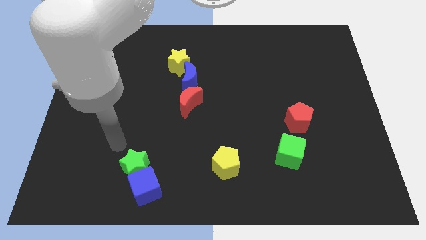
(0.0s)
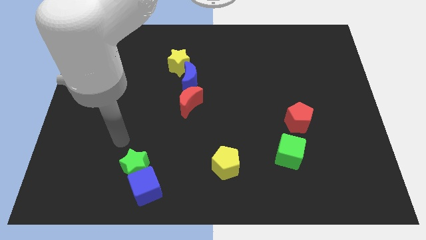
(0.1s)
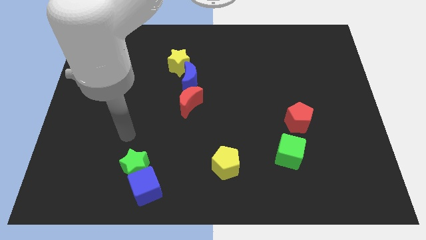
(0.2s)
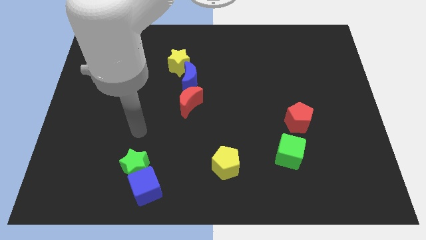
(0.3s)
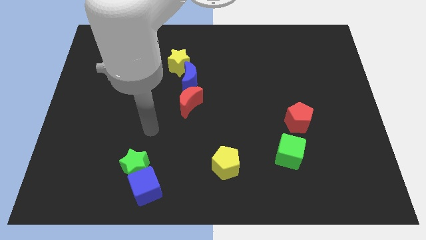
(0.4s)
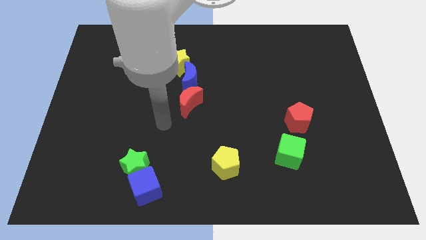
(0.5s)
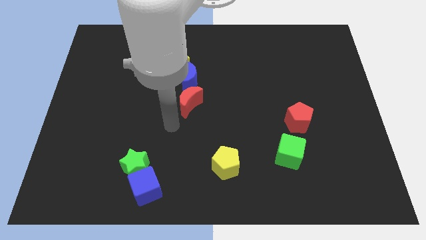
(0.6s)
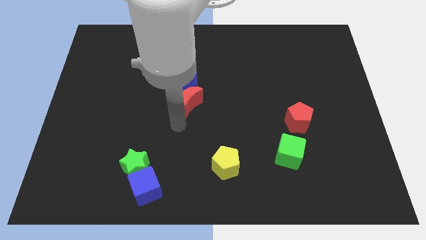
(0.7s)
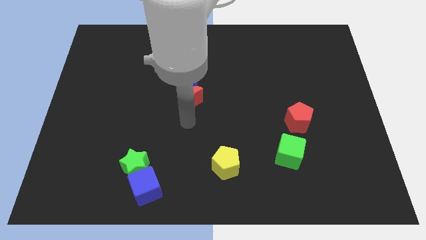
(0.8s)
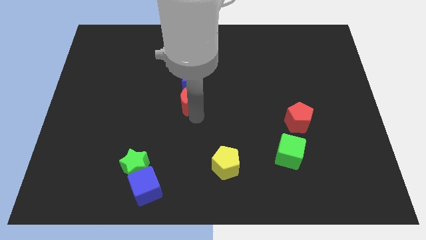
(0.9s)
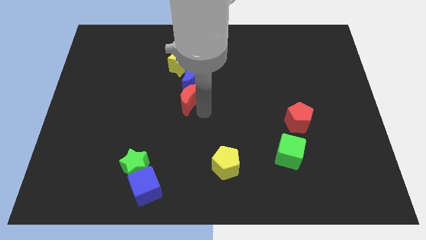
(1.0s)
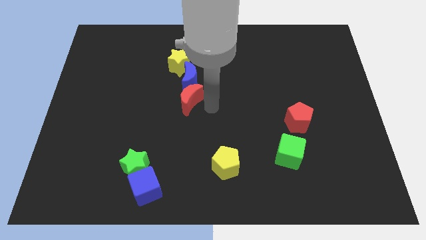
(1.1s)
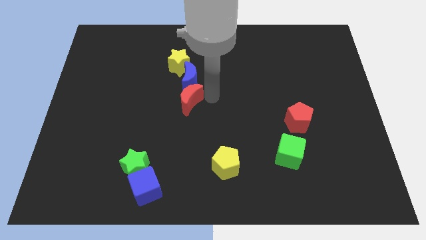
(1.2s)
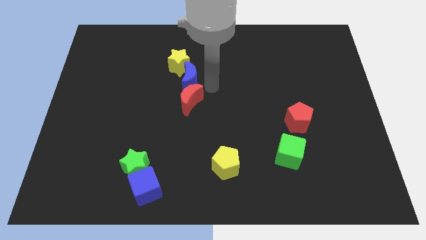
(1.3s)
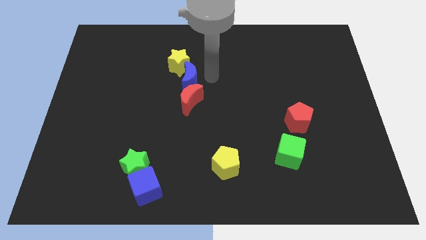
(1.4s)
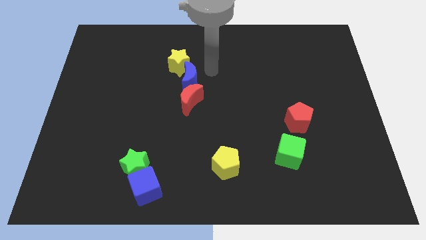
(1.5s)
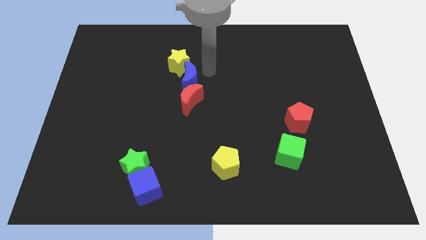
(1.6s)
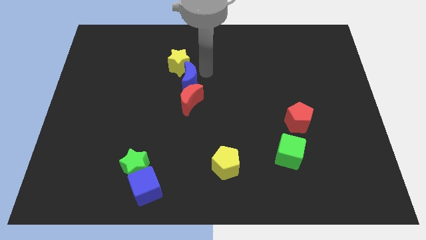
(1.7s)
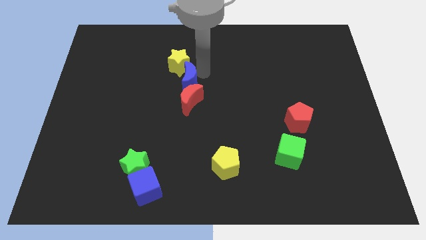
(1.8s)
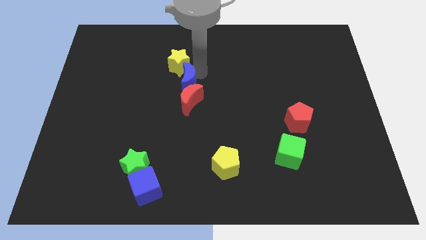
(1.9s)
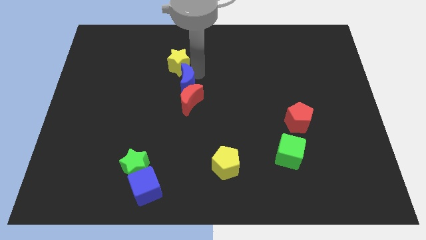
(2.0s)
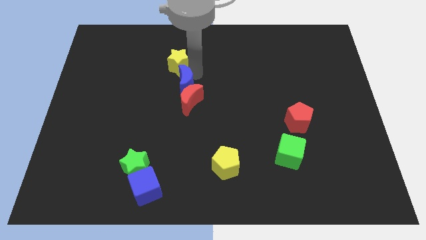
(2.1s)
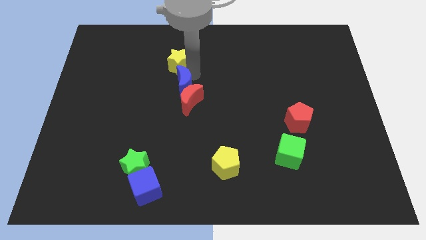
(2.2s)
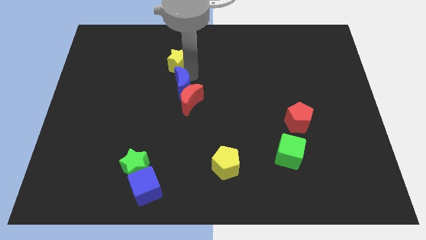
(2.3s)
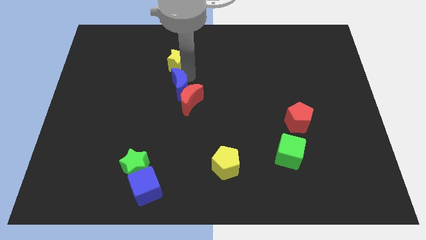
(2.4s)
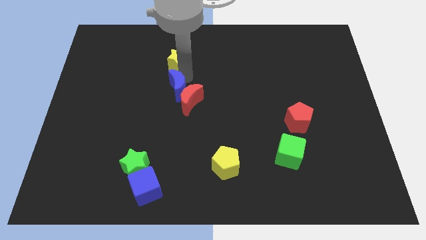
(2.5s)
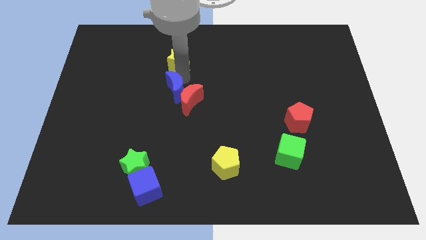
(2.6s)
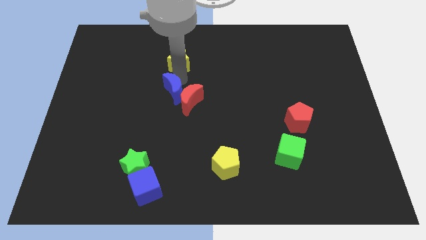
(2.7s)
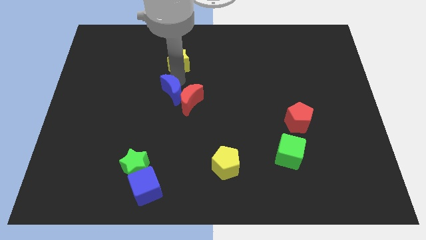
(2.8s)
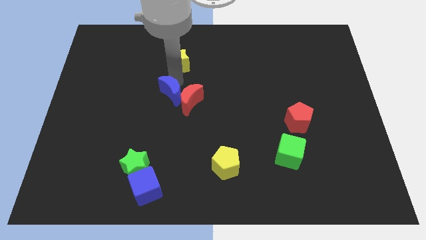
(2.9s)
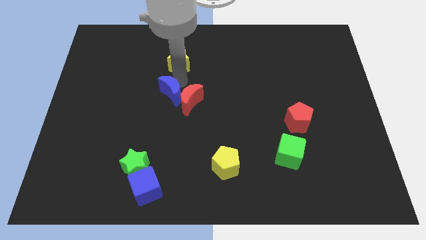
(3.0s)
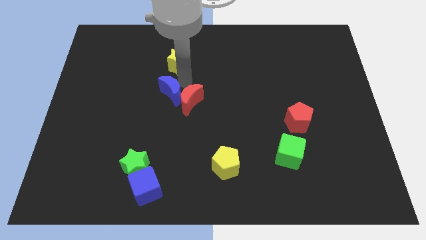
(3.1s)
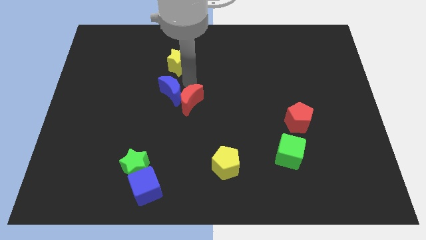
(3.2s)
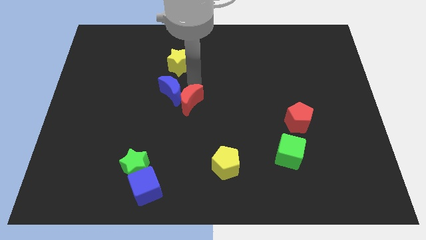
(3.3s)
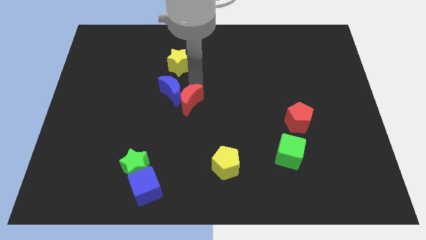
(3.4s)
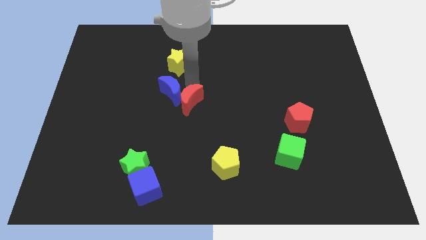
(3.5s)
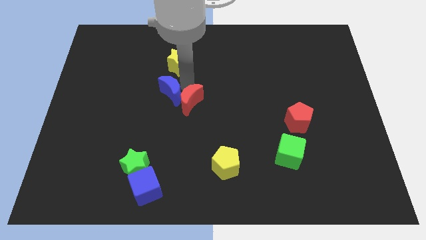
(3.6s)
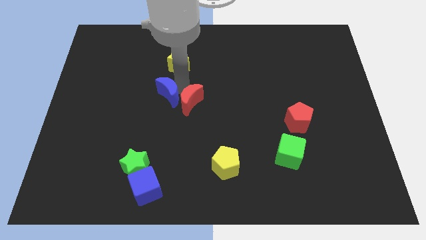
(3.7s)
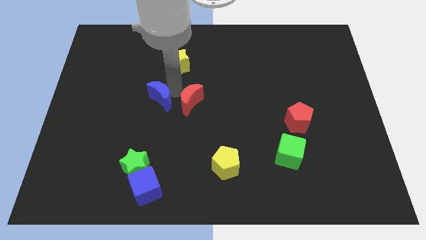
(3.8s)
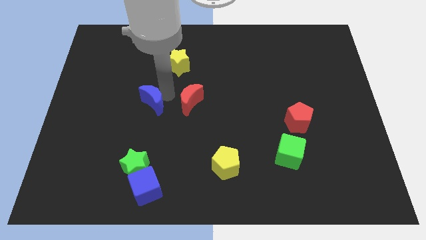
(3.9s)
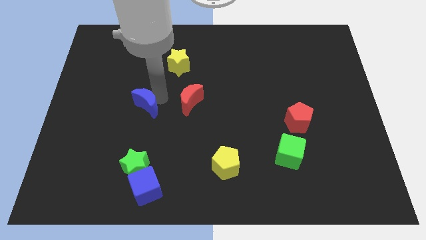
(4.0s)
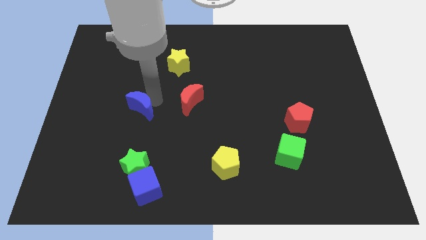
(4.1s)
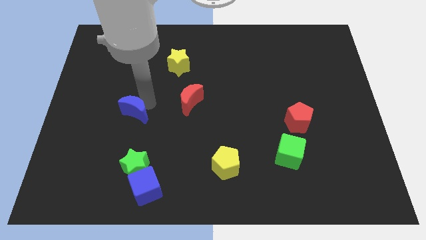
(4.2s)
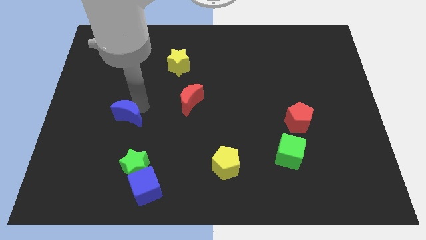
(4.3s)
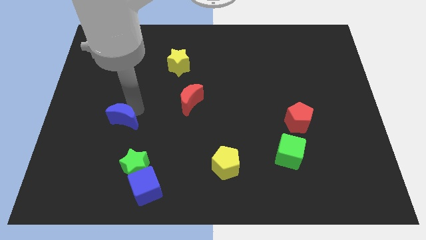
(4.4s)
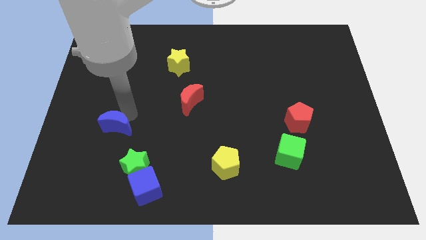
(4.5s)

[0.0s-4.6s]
move the blue moon down and to the left

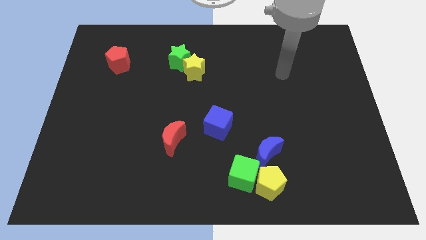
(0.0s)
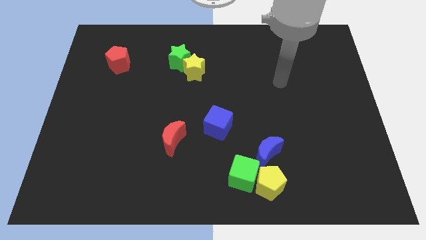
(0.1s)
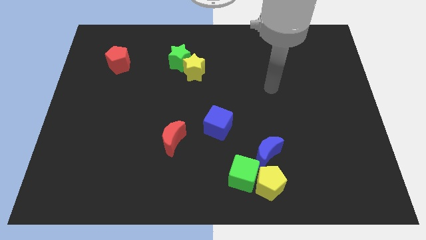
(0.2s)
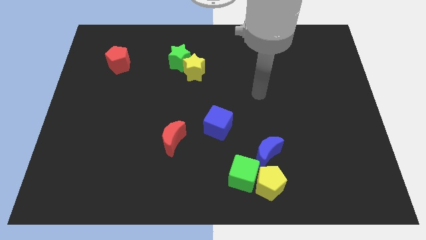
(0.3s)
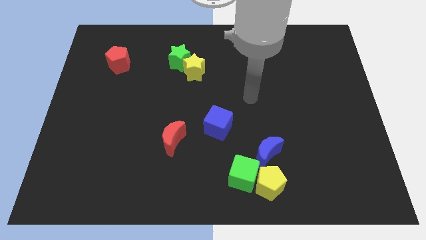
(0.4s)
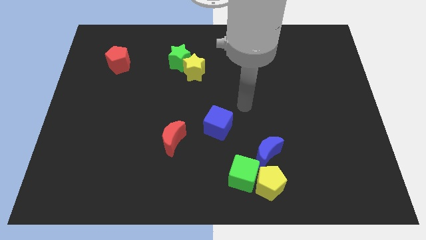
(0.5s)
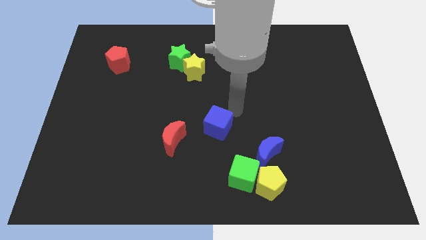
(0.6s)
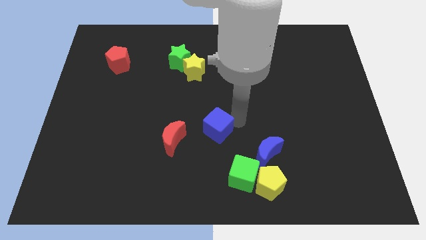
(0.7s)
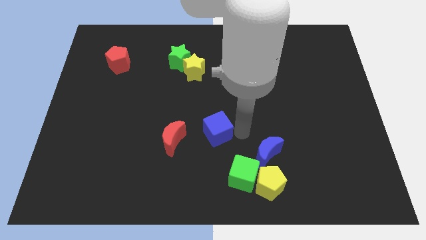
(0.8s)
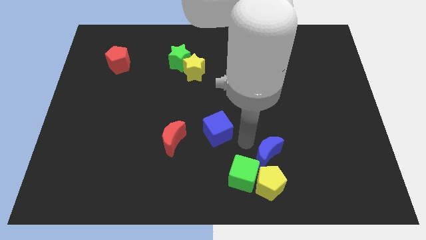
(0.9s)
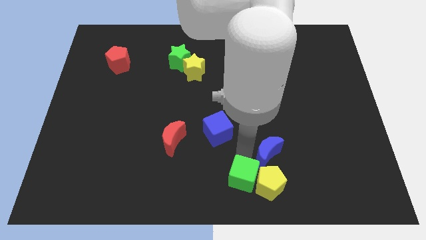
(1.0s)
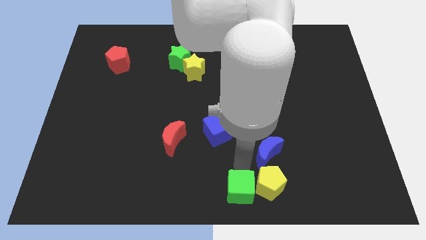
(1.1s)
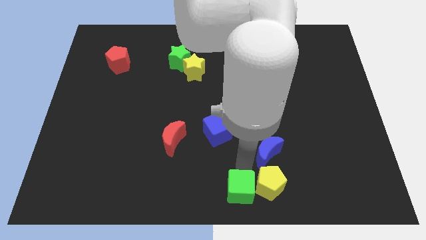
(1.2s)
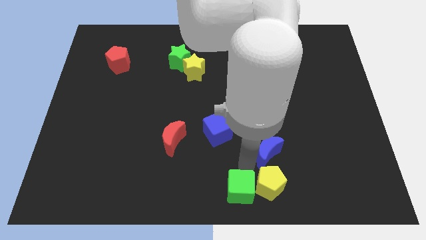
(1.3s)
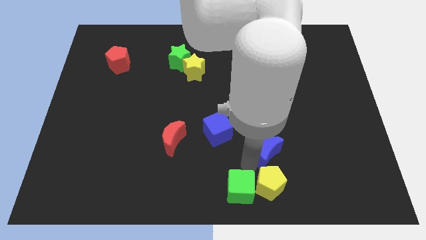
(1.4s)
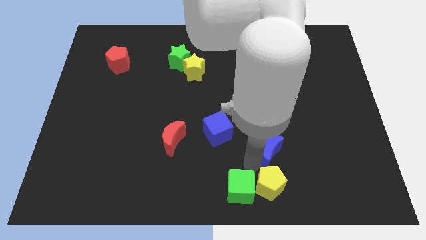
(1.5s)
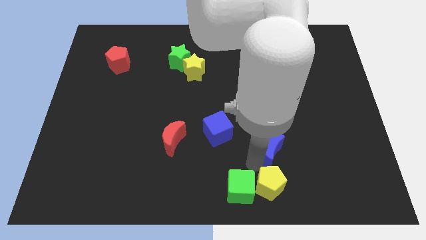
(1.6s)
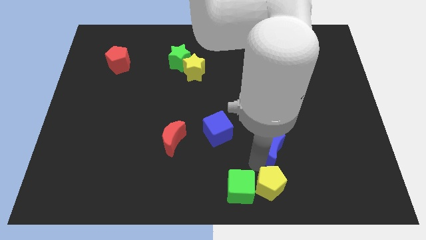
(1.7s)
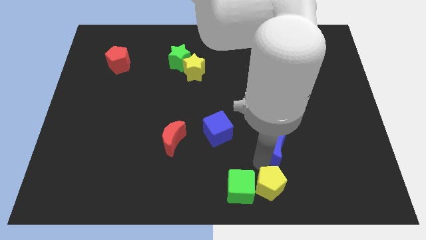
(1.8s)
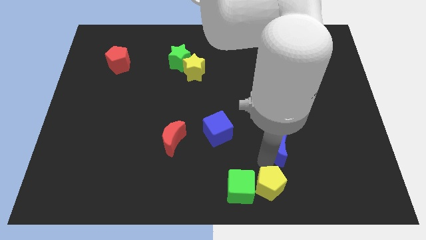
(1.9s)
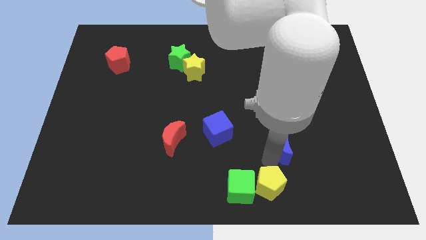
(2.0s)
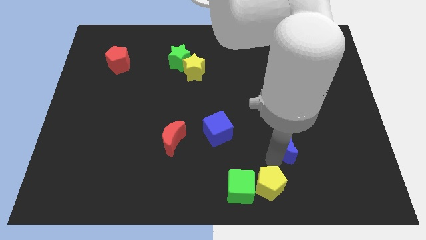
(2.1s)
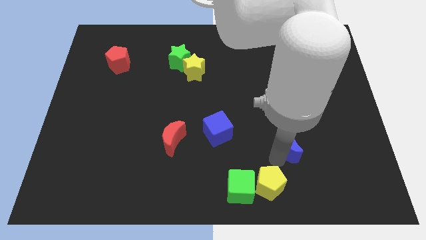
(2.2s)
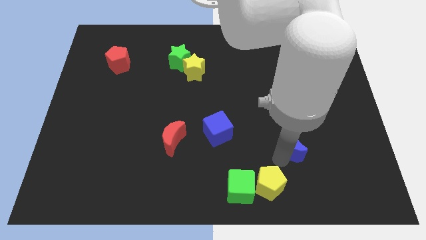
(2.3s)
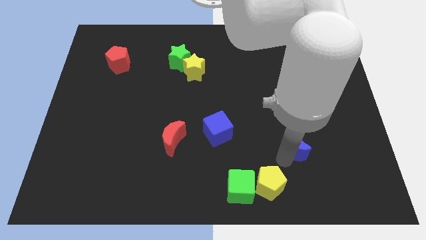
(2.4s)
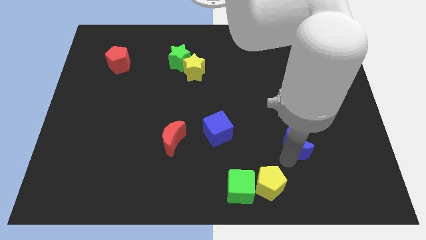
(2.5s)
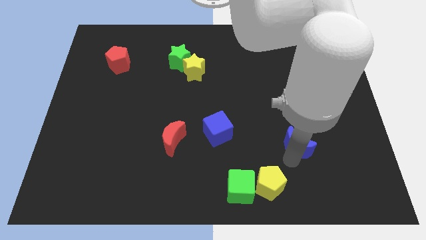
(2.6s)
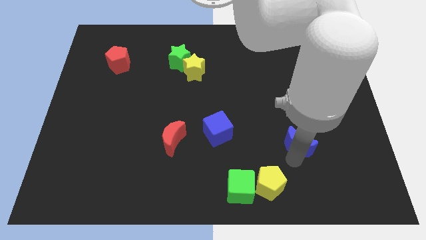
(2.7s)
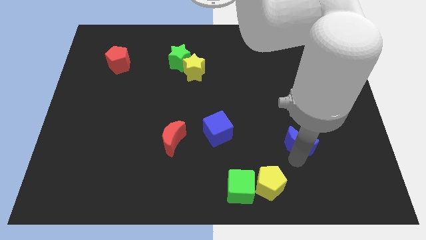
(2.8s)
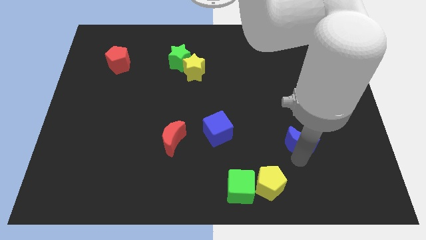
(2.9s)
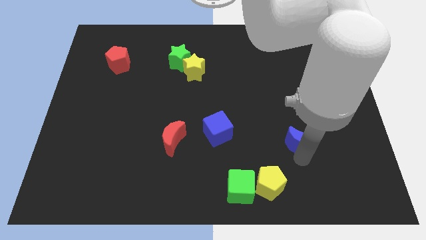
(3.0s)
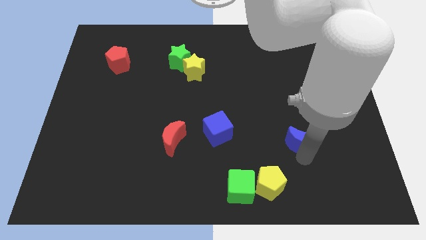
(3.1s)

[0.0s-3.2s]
slightly slide the blue moon upwards and right diagonally

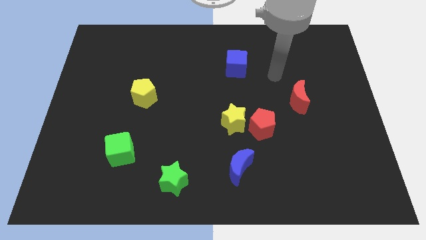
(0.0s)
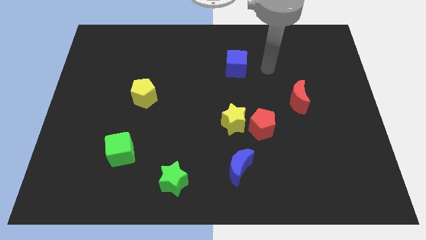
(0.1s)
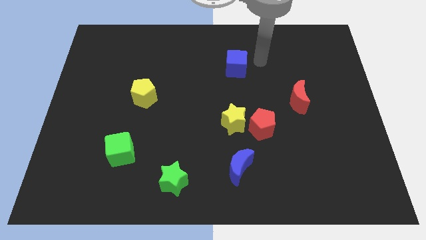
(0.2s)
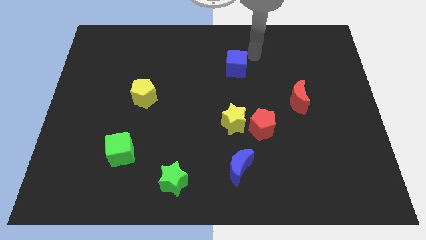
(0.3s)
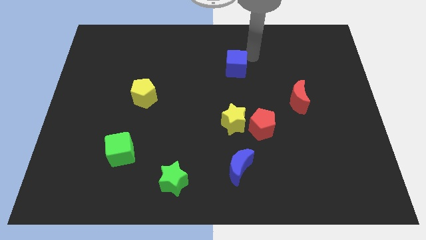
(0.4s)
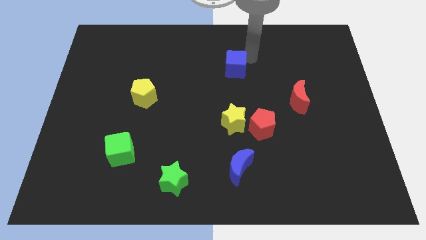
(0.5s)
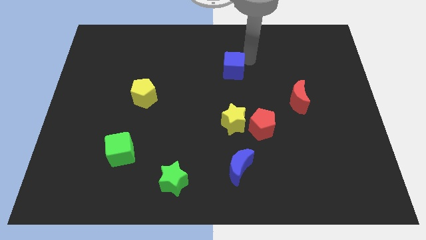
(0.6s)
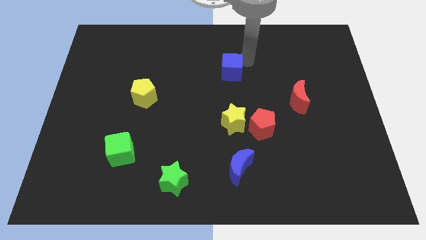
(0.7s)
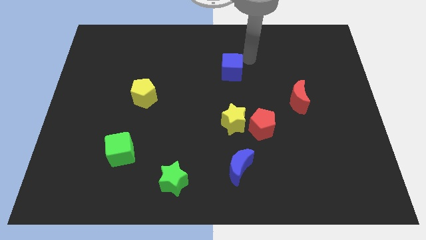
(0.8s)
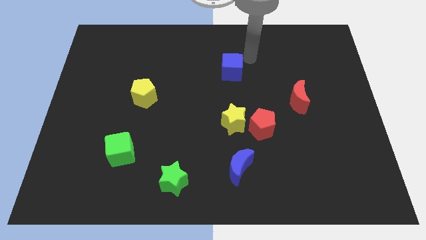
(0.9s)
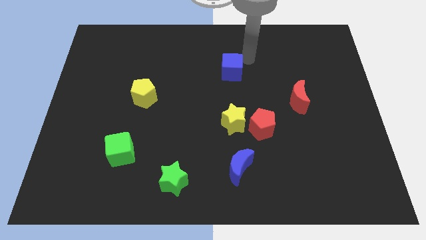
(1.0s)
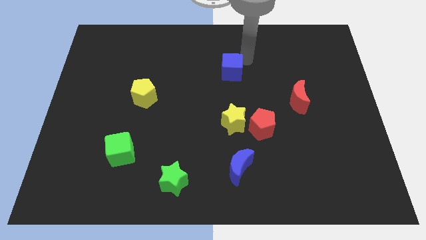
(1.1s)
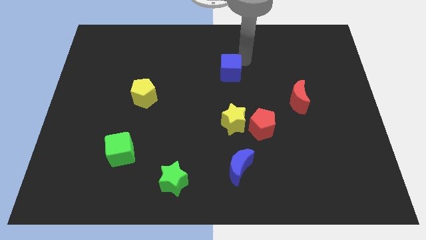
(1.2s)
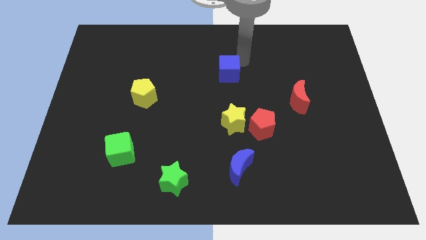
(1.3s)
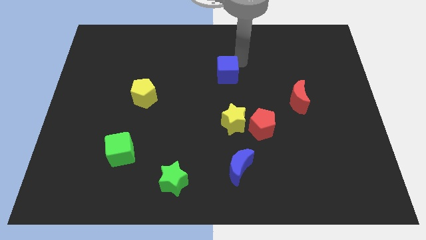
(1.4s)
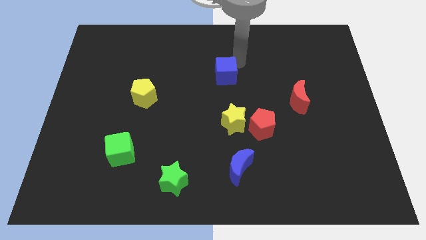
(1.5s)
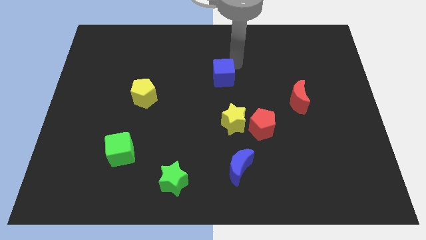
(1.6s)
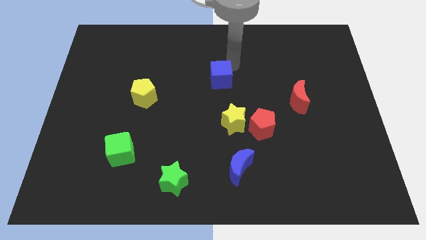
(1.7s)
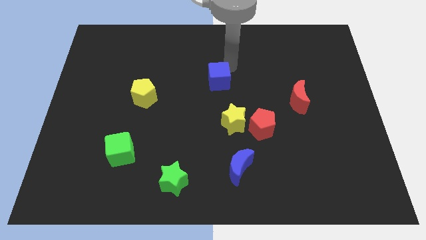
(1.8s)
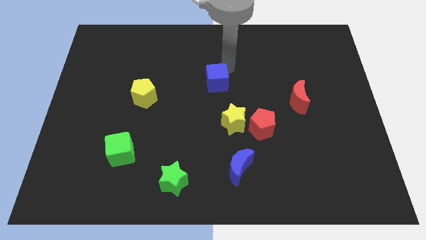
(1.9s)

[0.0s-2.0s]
push the blue cube a bit downwards and left
